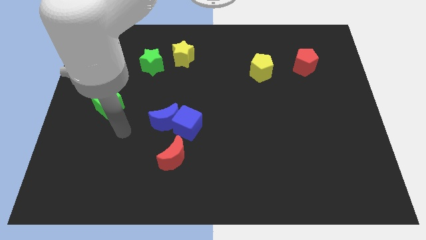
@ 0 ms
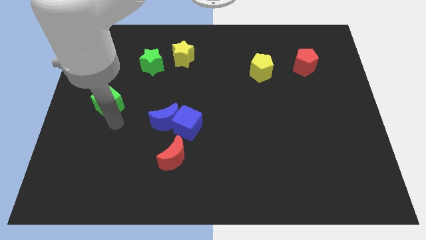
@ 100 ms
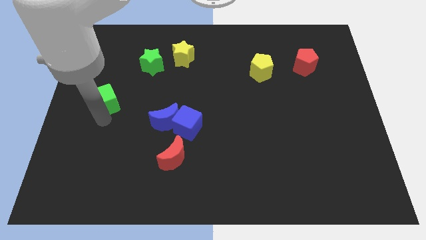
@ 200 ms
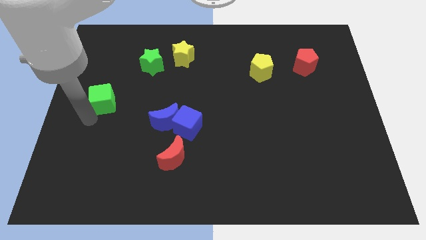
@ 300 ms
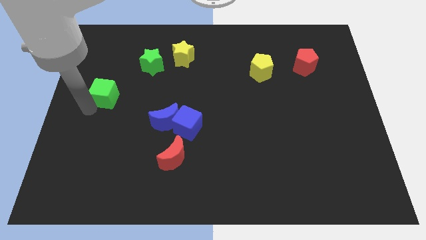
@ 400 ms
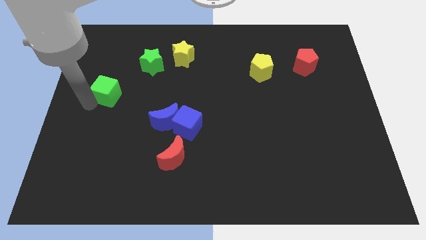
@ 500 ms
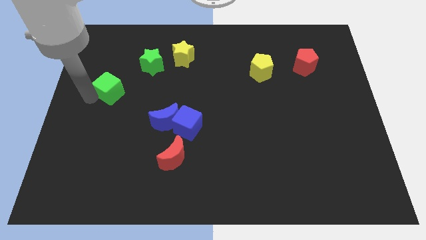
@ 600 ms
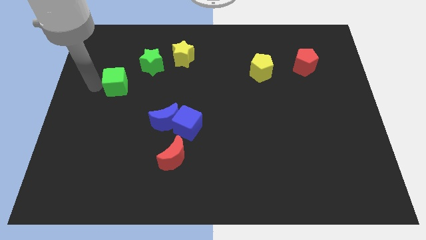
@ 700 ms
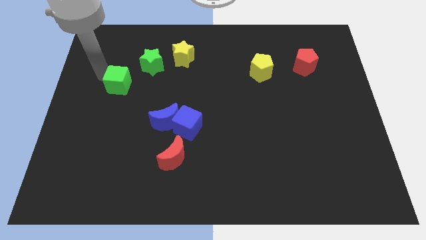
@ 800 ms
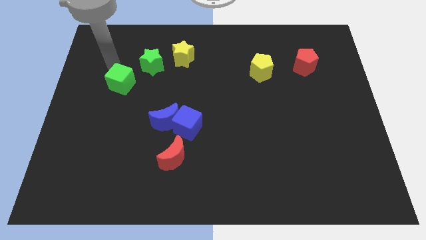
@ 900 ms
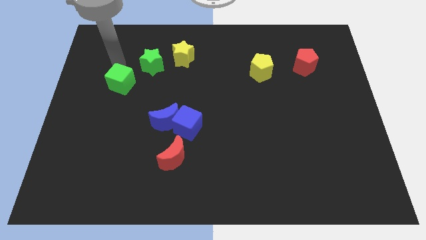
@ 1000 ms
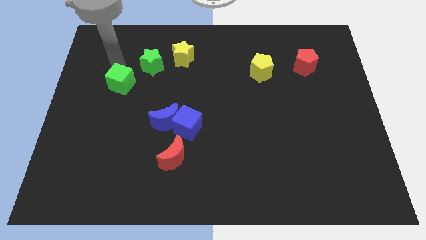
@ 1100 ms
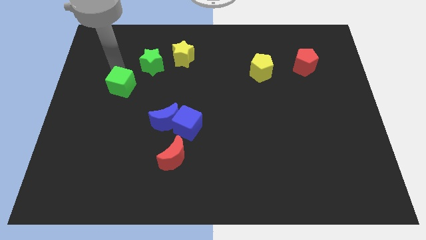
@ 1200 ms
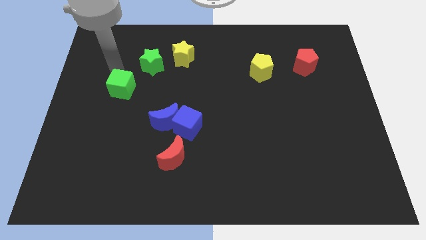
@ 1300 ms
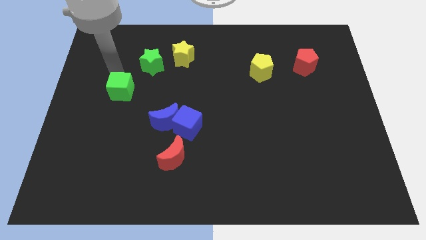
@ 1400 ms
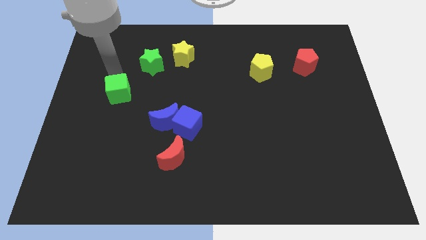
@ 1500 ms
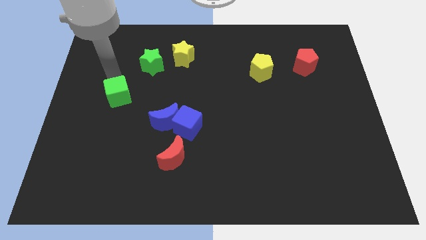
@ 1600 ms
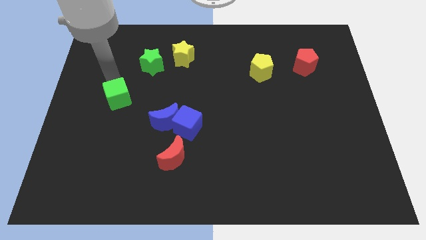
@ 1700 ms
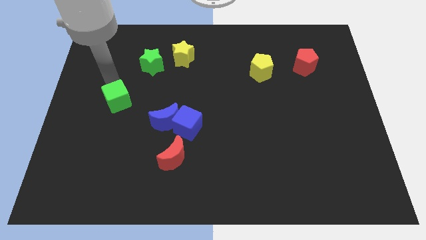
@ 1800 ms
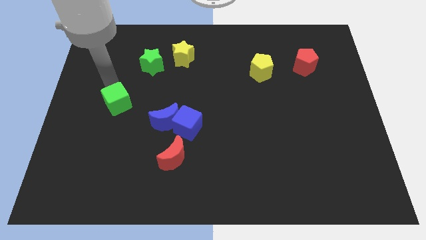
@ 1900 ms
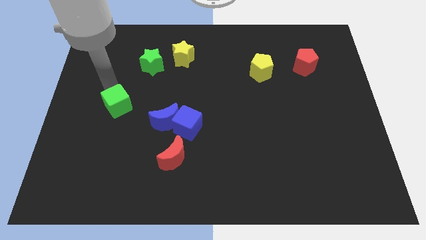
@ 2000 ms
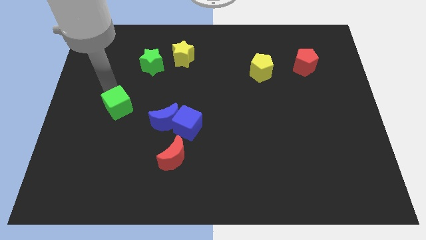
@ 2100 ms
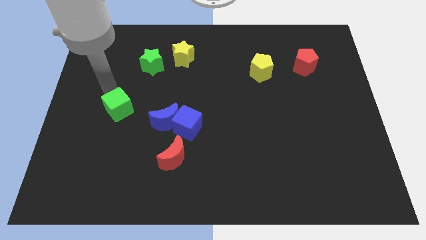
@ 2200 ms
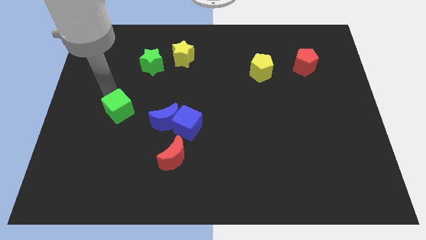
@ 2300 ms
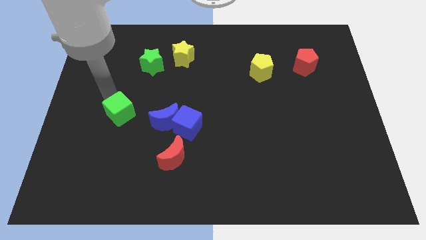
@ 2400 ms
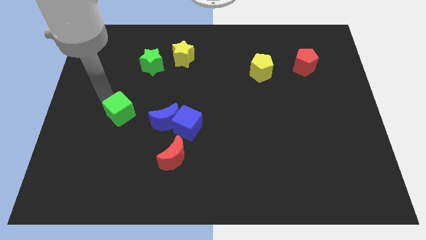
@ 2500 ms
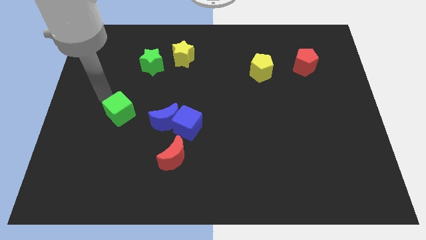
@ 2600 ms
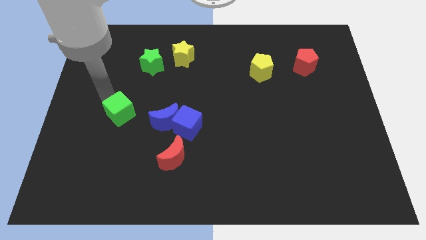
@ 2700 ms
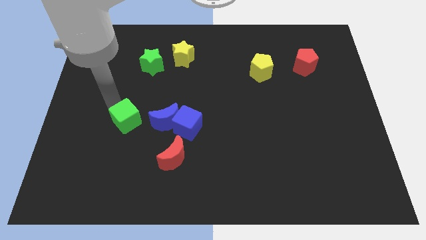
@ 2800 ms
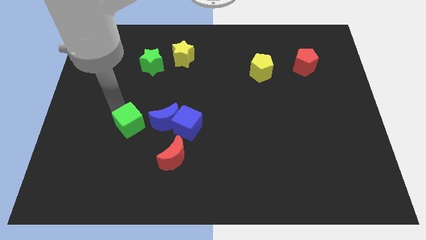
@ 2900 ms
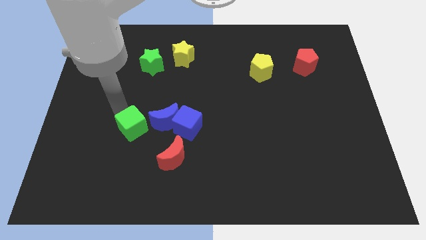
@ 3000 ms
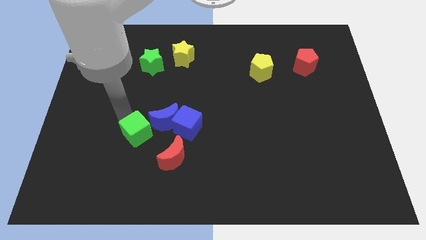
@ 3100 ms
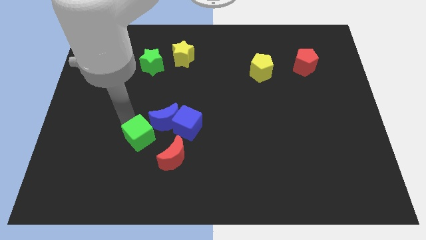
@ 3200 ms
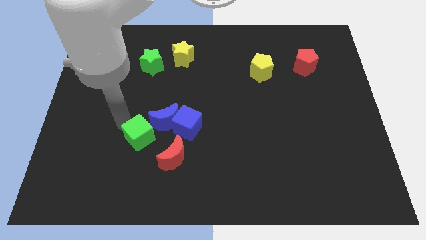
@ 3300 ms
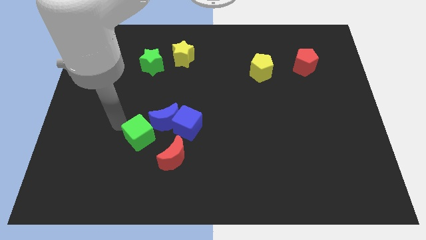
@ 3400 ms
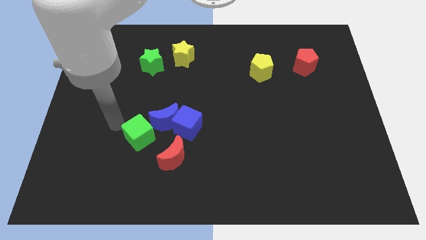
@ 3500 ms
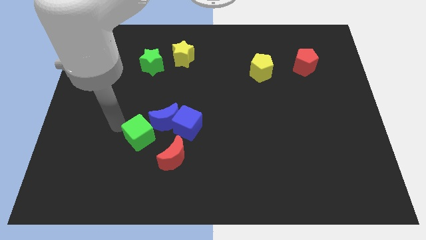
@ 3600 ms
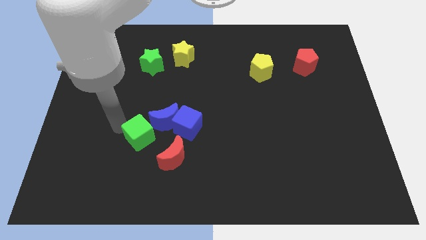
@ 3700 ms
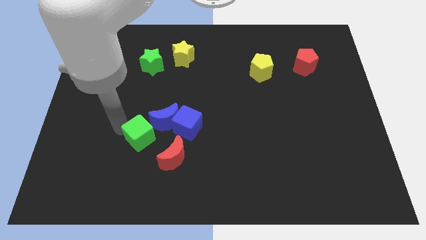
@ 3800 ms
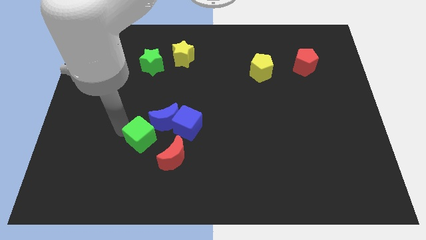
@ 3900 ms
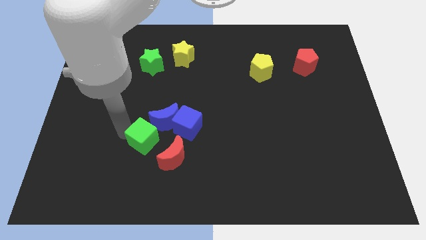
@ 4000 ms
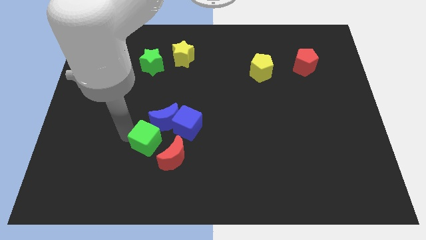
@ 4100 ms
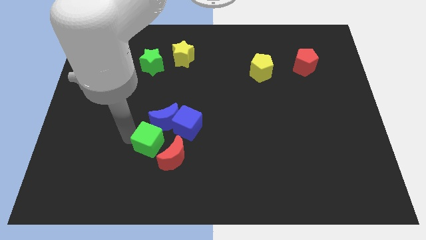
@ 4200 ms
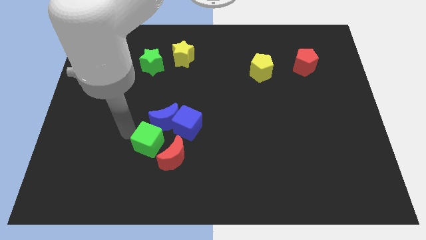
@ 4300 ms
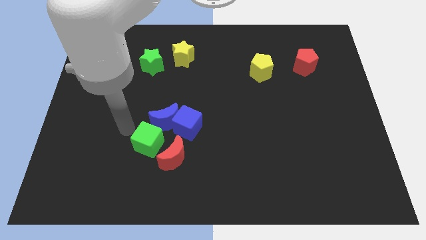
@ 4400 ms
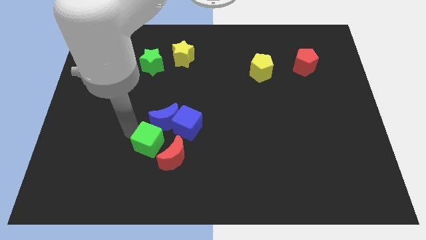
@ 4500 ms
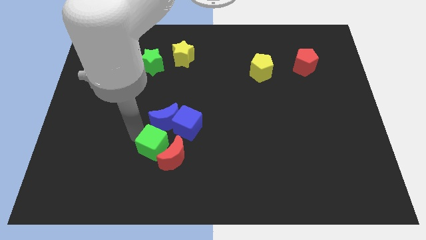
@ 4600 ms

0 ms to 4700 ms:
put the green cube to the red moon

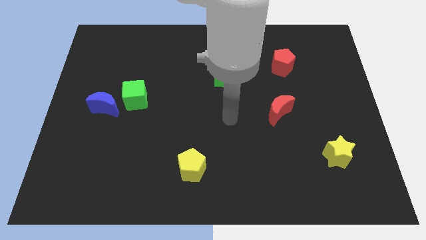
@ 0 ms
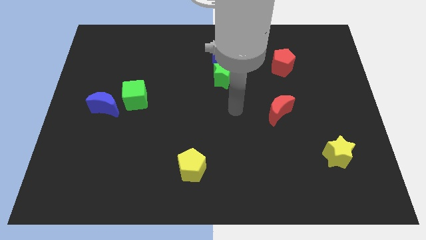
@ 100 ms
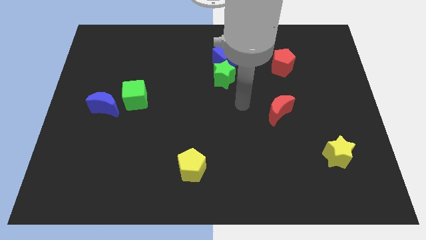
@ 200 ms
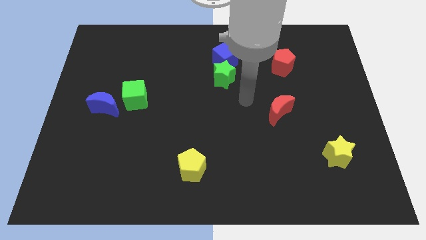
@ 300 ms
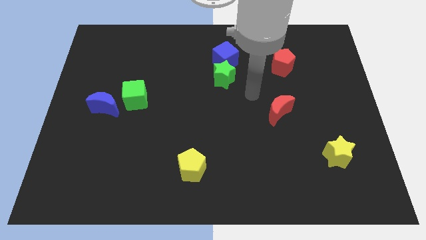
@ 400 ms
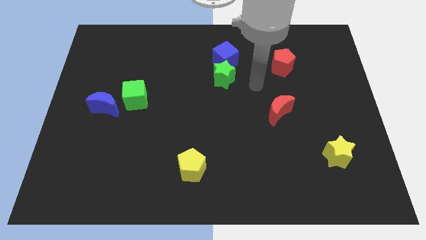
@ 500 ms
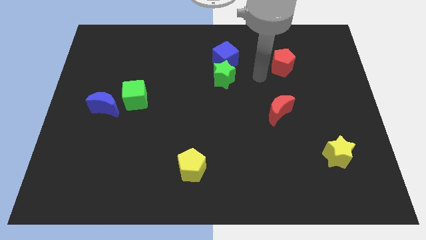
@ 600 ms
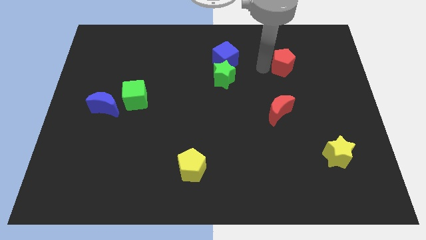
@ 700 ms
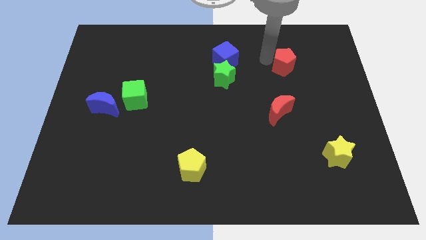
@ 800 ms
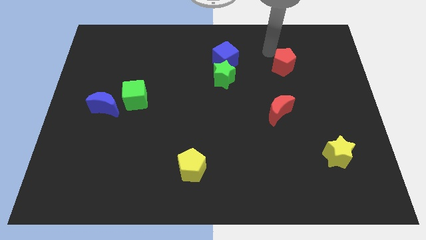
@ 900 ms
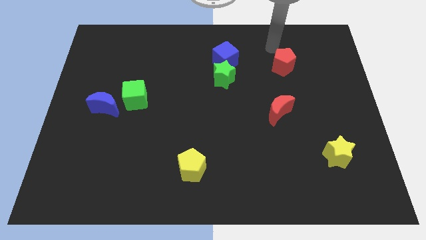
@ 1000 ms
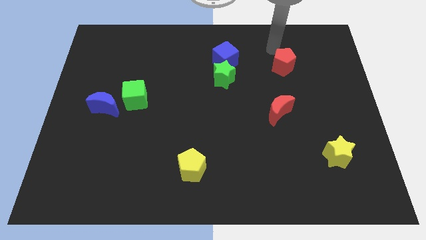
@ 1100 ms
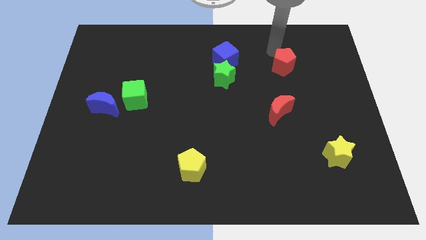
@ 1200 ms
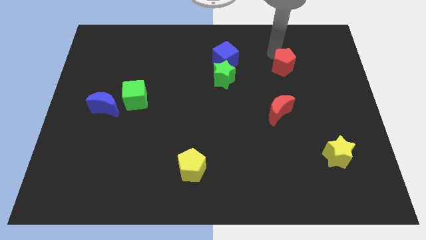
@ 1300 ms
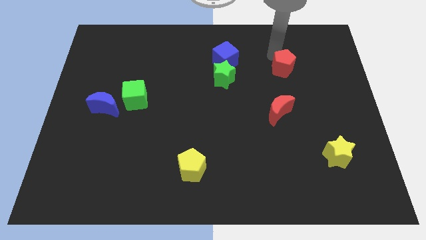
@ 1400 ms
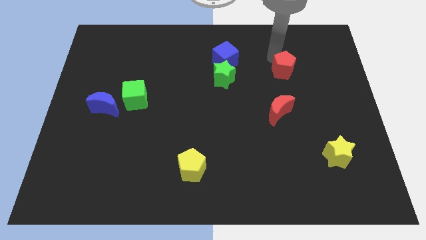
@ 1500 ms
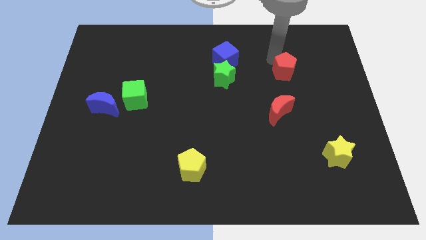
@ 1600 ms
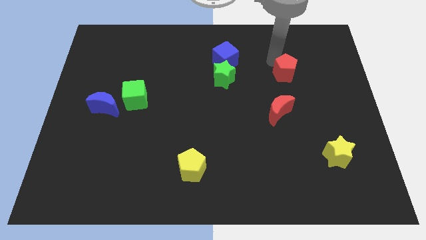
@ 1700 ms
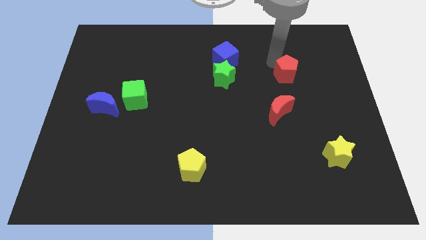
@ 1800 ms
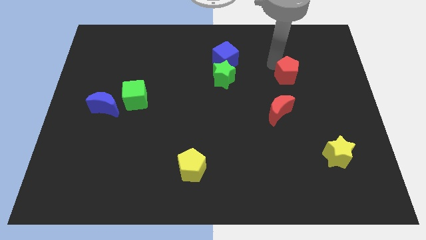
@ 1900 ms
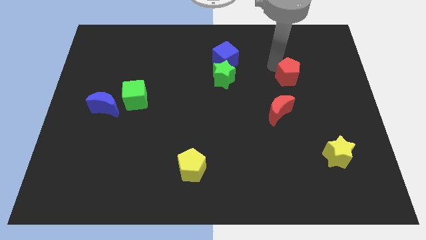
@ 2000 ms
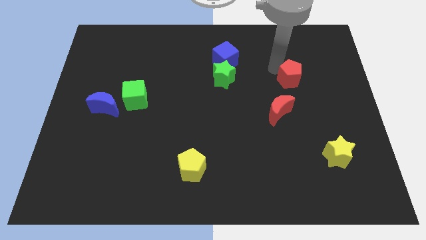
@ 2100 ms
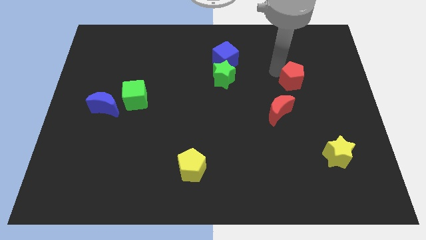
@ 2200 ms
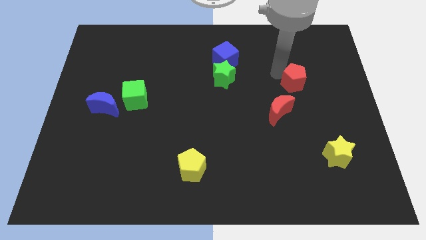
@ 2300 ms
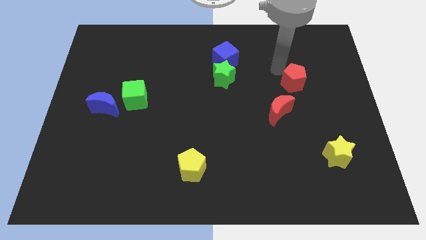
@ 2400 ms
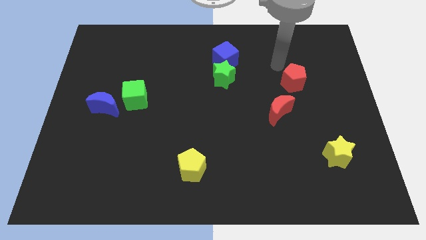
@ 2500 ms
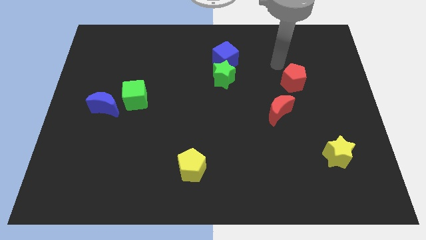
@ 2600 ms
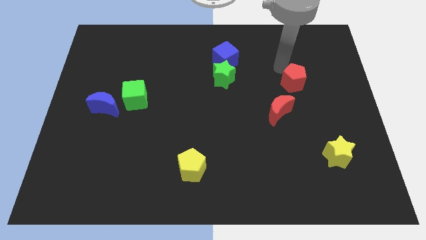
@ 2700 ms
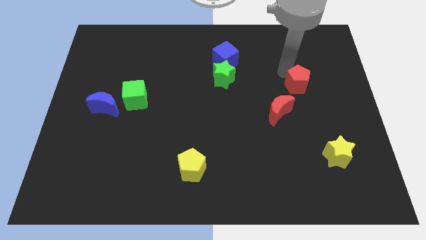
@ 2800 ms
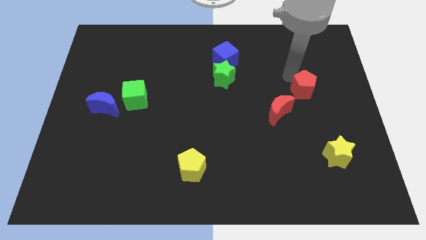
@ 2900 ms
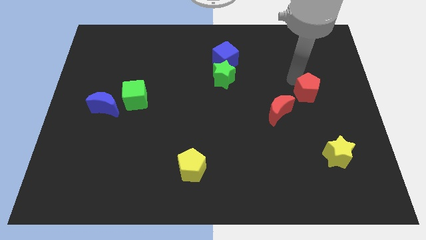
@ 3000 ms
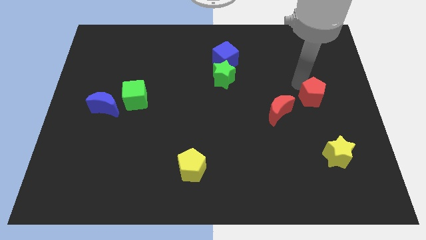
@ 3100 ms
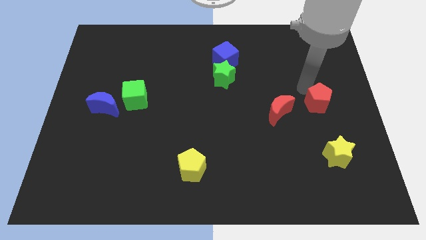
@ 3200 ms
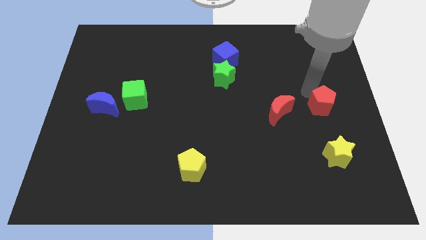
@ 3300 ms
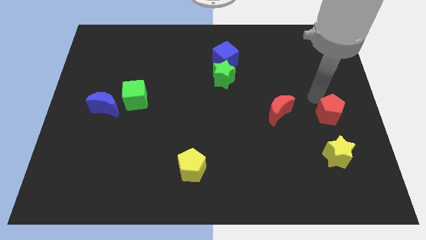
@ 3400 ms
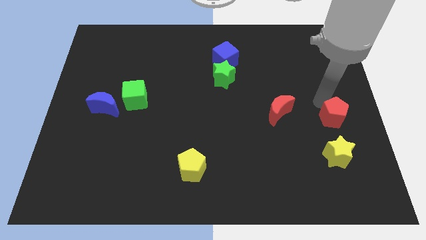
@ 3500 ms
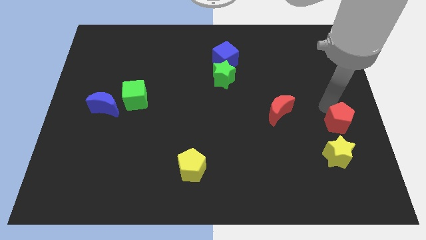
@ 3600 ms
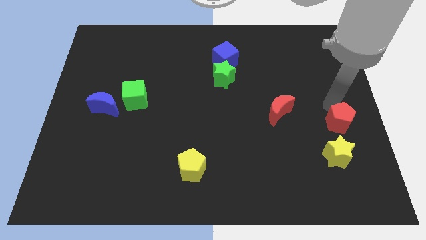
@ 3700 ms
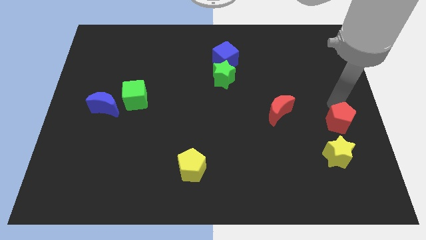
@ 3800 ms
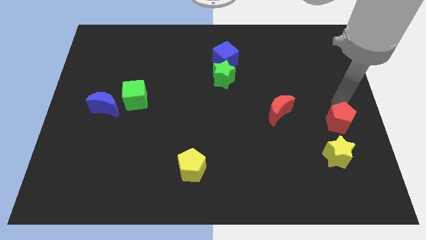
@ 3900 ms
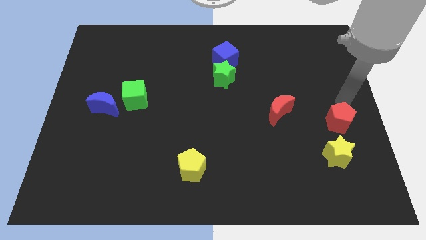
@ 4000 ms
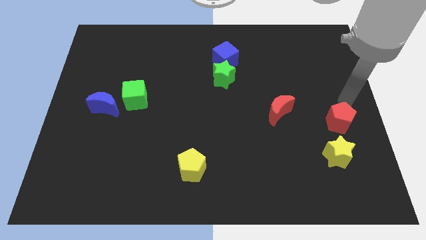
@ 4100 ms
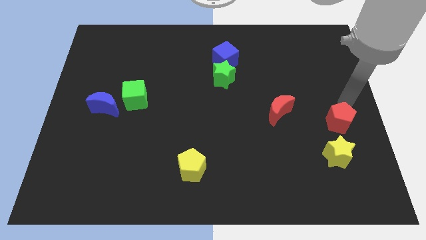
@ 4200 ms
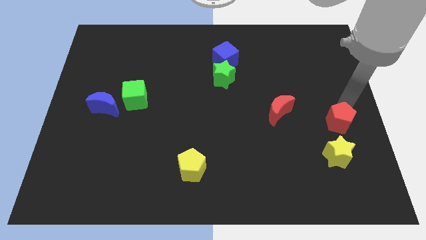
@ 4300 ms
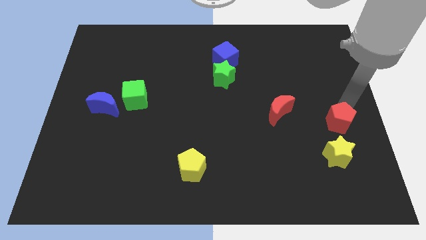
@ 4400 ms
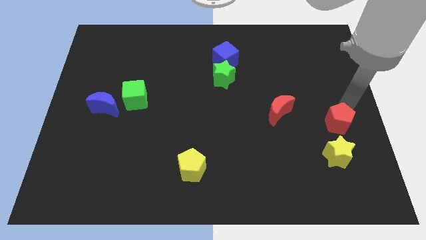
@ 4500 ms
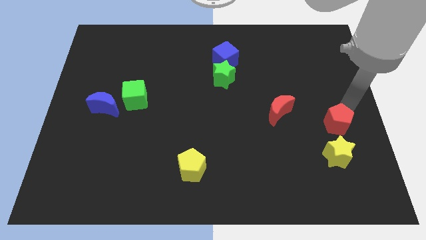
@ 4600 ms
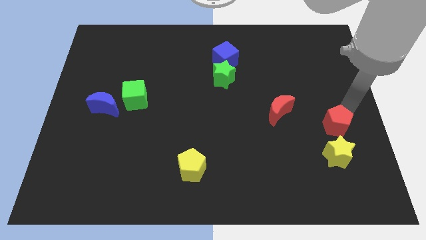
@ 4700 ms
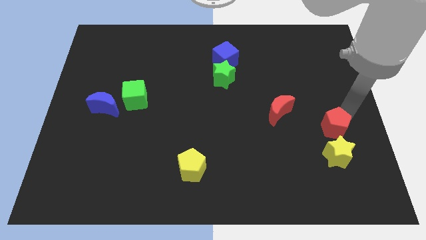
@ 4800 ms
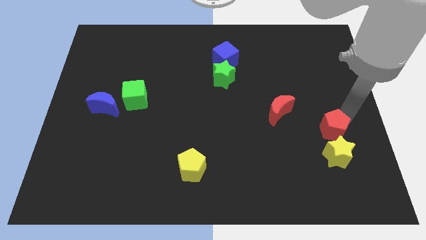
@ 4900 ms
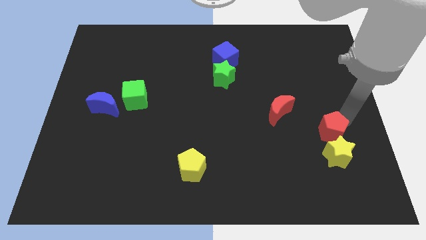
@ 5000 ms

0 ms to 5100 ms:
put the red pentagon towards the yellow star
